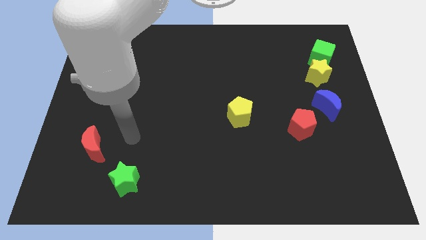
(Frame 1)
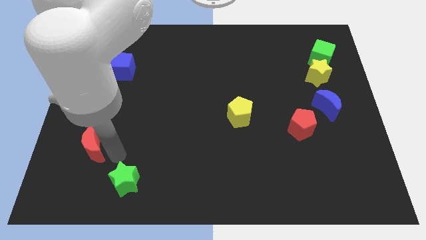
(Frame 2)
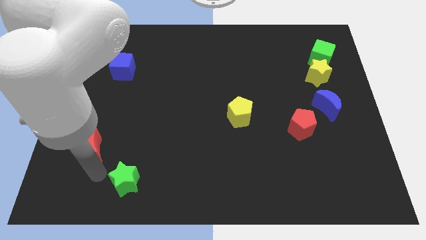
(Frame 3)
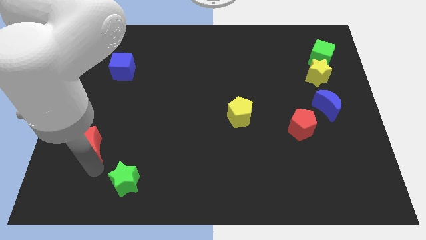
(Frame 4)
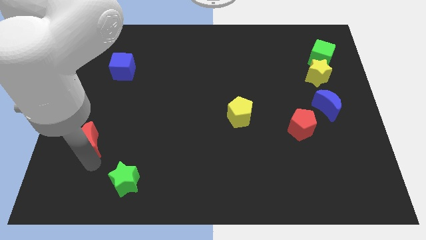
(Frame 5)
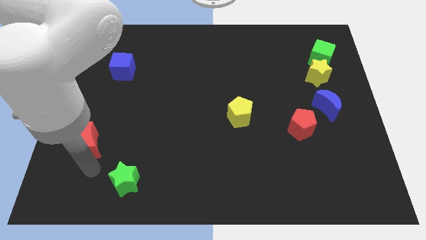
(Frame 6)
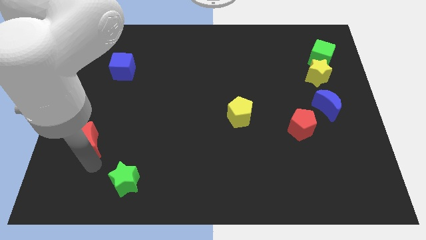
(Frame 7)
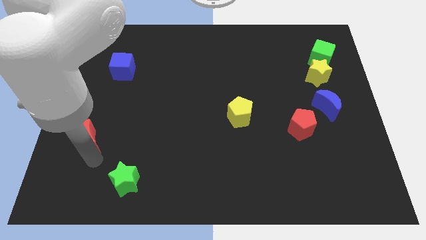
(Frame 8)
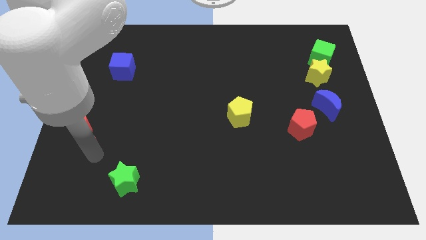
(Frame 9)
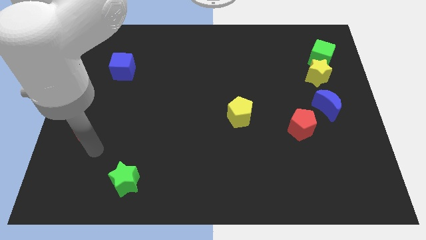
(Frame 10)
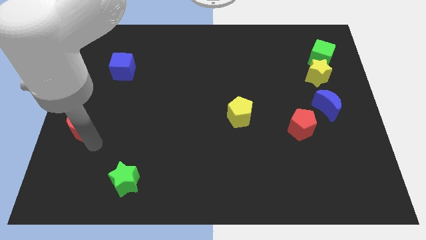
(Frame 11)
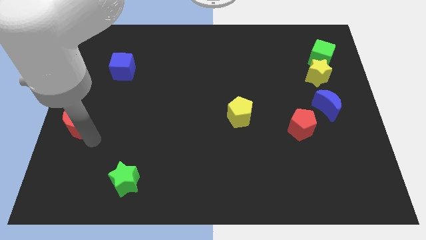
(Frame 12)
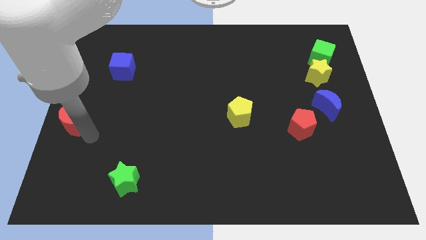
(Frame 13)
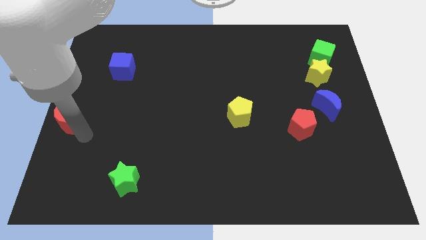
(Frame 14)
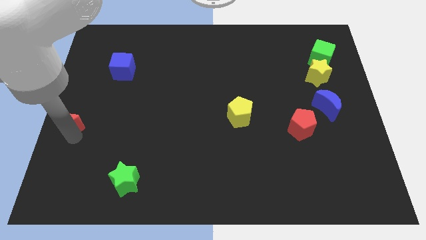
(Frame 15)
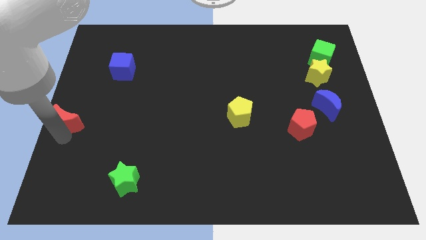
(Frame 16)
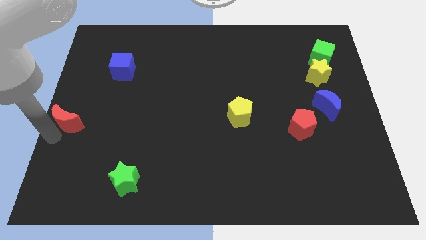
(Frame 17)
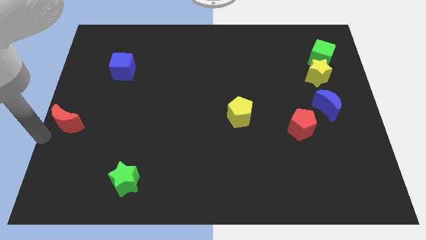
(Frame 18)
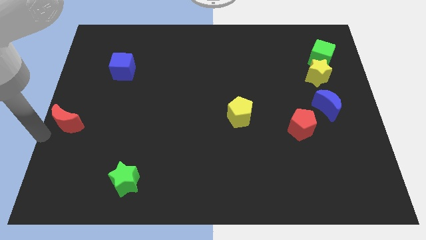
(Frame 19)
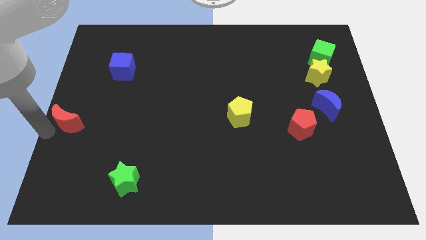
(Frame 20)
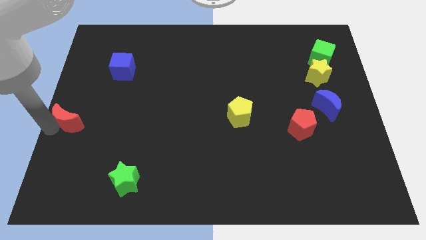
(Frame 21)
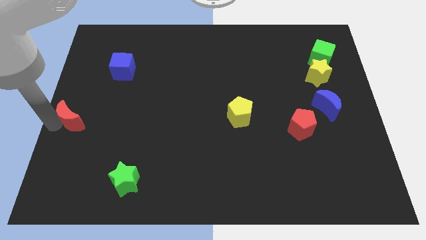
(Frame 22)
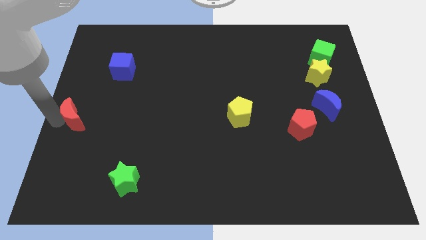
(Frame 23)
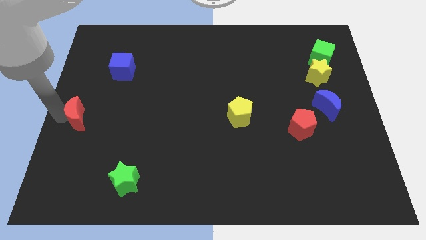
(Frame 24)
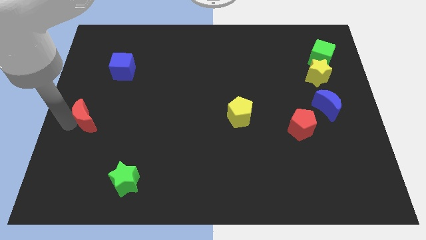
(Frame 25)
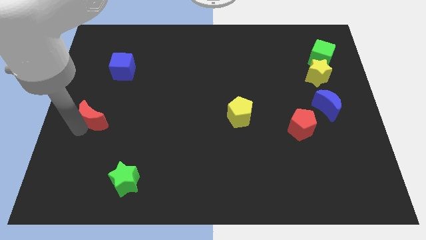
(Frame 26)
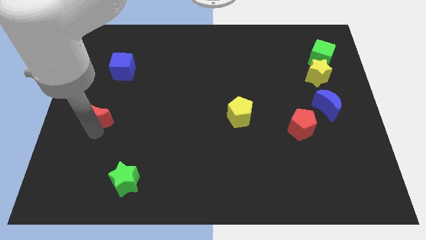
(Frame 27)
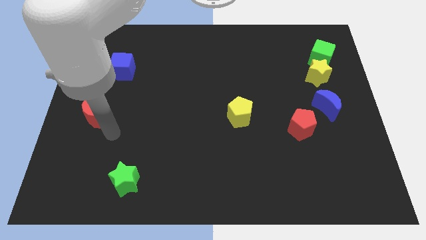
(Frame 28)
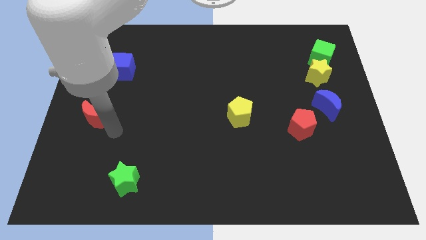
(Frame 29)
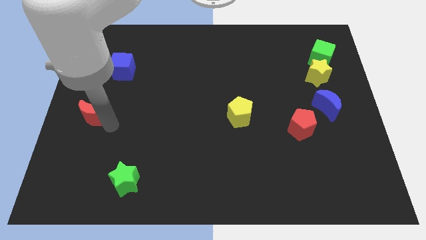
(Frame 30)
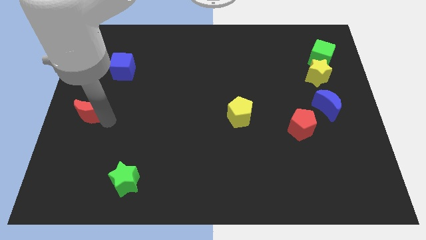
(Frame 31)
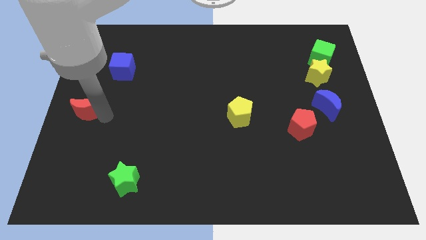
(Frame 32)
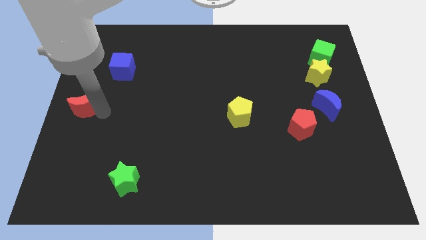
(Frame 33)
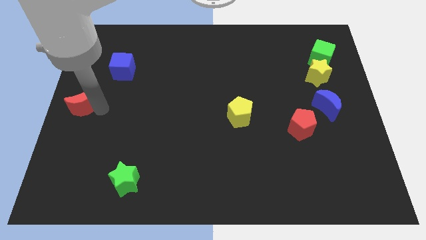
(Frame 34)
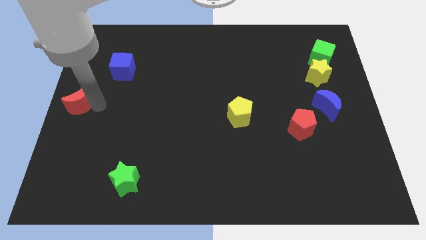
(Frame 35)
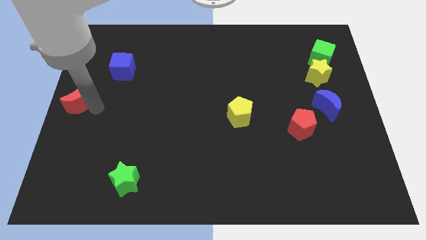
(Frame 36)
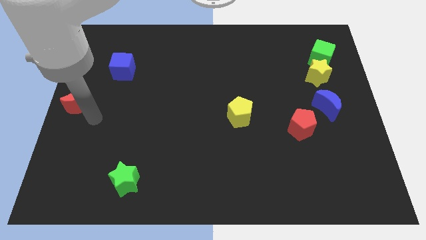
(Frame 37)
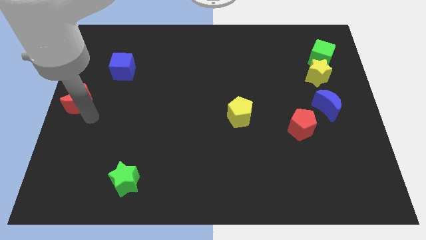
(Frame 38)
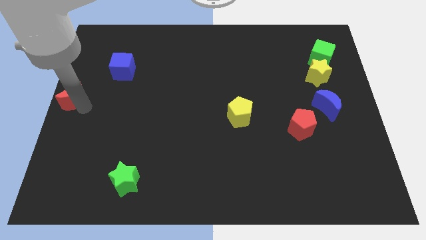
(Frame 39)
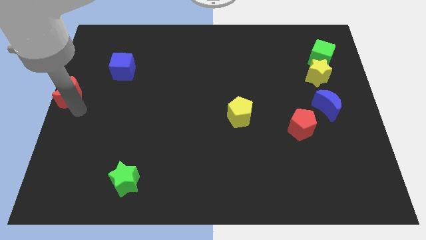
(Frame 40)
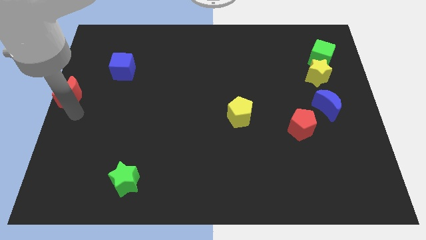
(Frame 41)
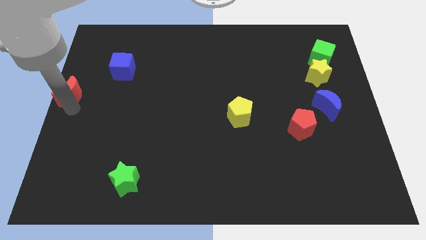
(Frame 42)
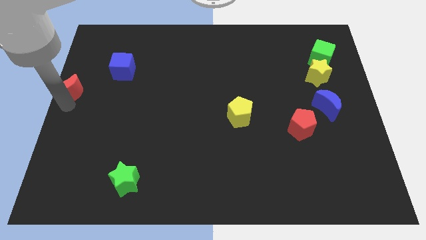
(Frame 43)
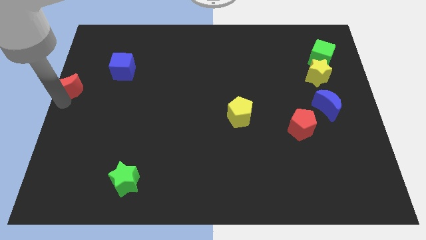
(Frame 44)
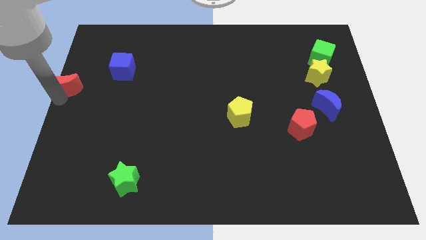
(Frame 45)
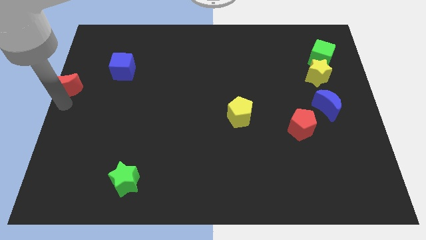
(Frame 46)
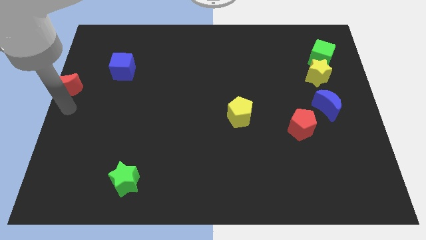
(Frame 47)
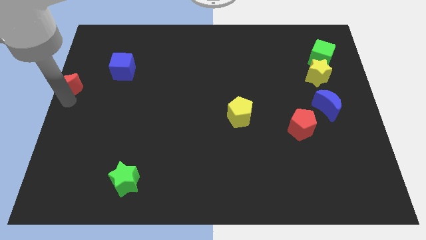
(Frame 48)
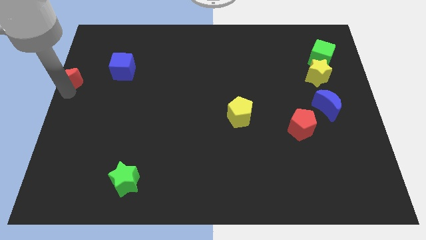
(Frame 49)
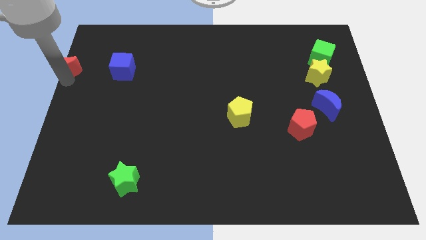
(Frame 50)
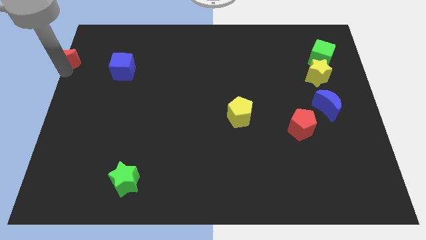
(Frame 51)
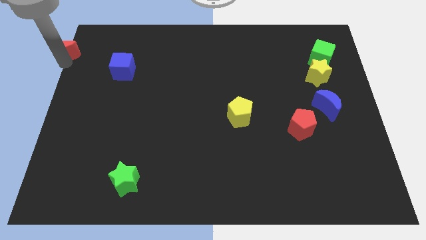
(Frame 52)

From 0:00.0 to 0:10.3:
move the red moon to the top left of the board

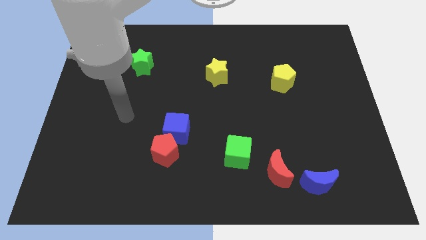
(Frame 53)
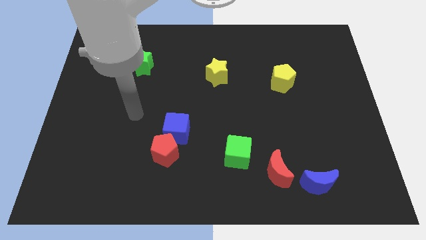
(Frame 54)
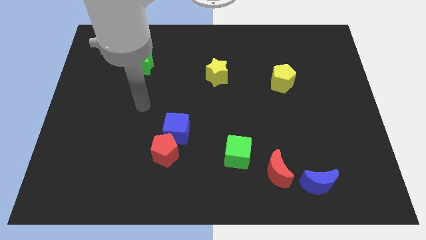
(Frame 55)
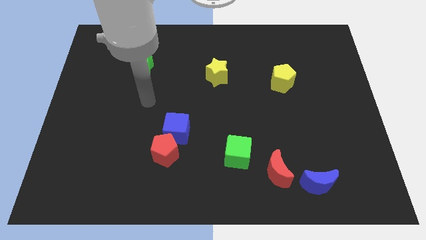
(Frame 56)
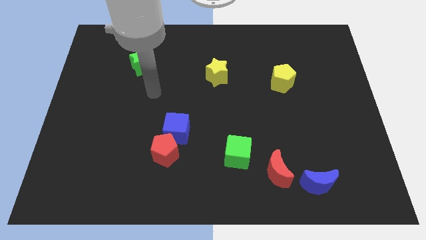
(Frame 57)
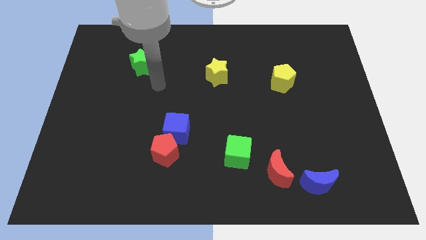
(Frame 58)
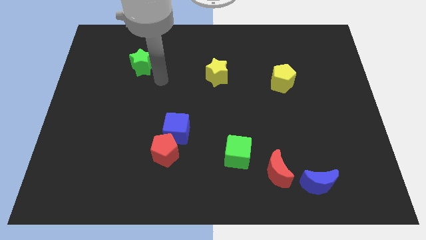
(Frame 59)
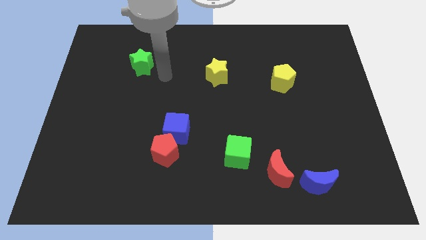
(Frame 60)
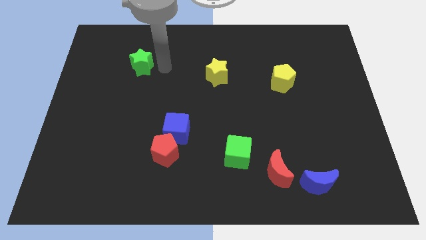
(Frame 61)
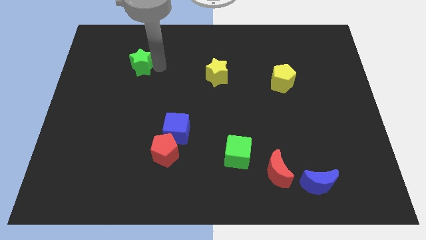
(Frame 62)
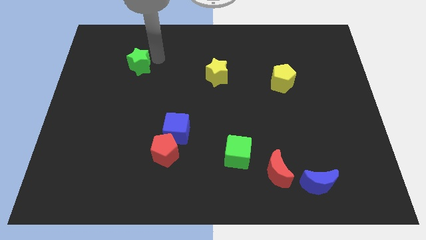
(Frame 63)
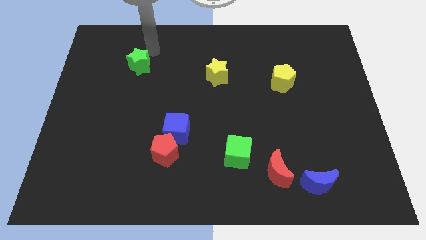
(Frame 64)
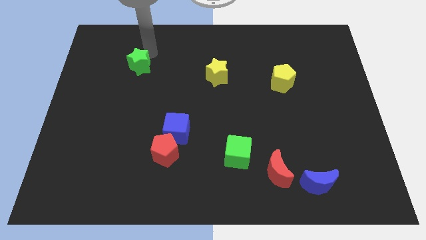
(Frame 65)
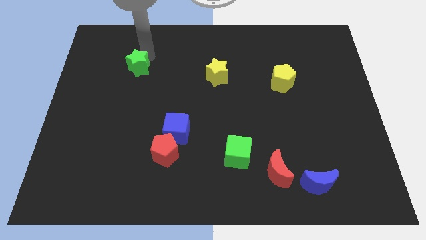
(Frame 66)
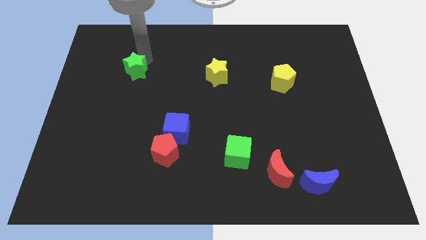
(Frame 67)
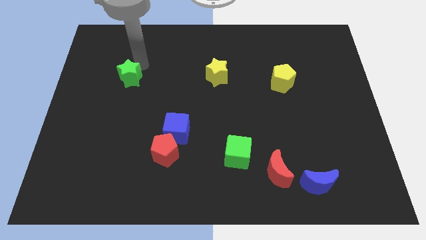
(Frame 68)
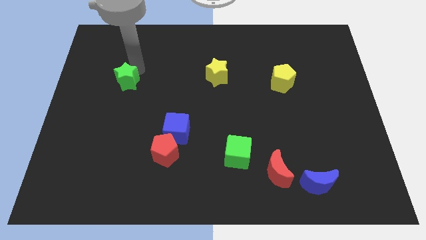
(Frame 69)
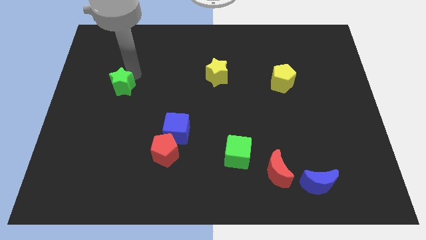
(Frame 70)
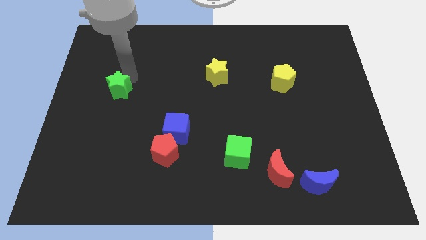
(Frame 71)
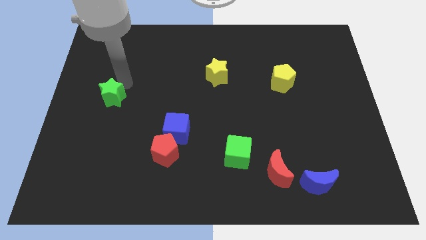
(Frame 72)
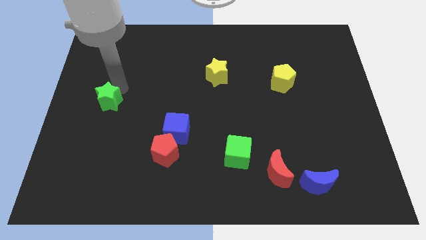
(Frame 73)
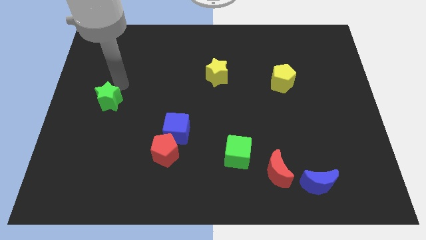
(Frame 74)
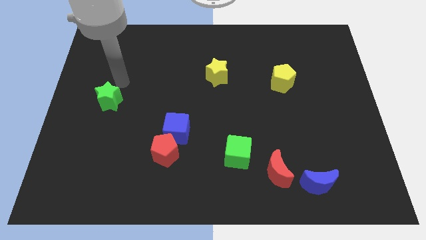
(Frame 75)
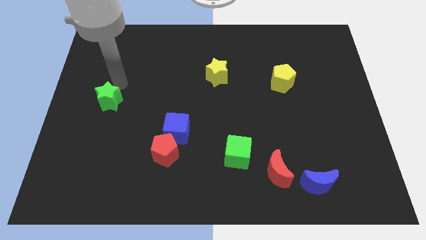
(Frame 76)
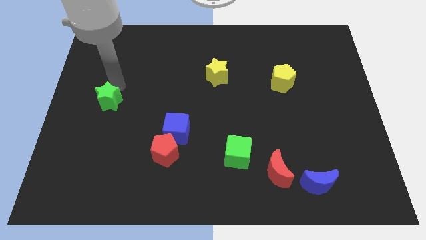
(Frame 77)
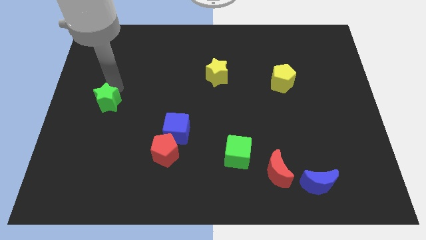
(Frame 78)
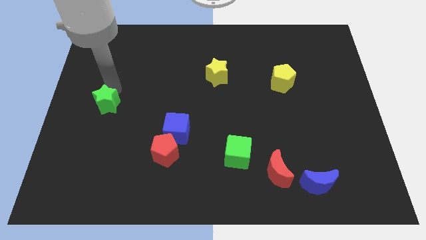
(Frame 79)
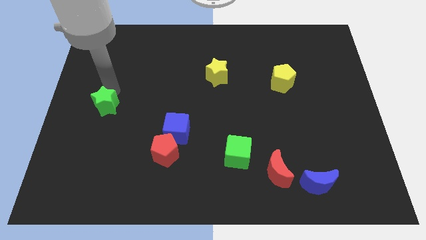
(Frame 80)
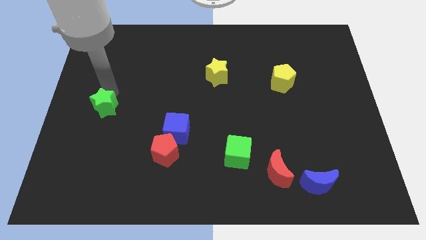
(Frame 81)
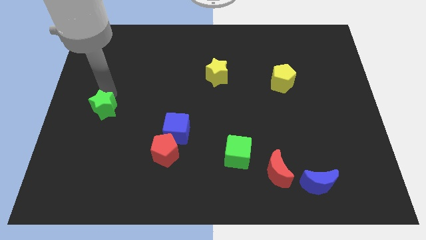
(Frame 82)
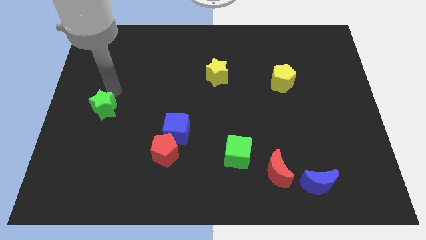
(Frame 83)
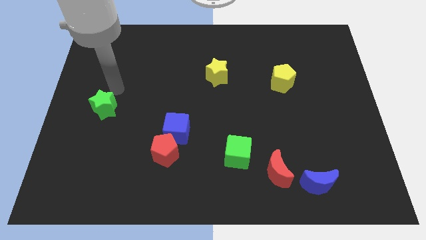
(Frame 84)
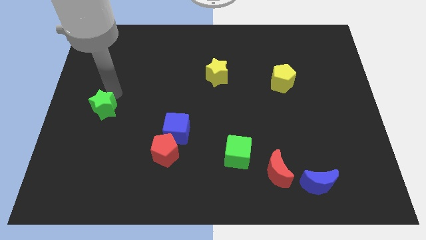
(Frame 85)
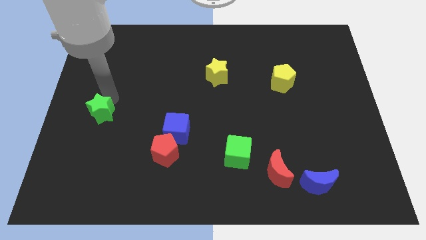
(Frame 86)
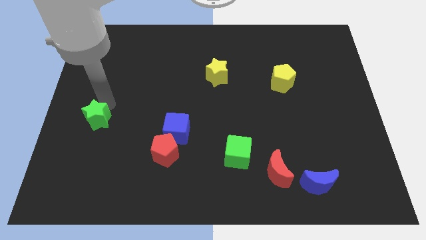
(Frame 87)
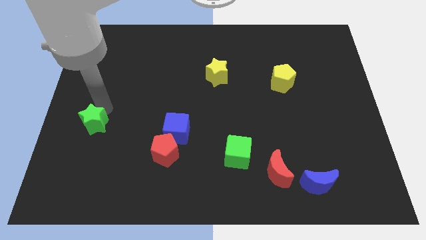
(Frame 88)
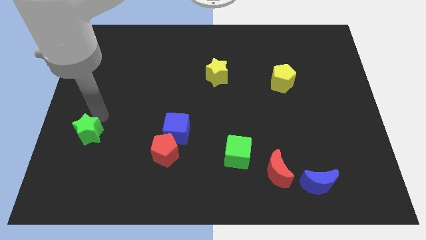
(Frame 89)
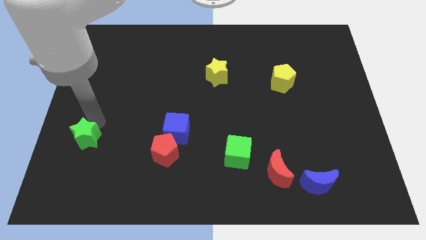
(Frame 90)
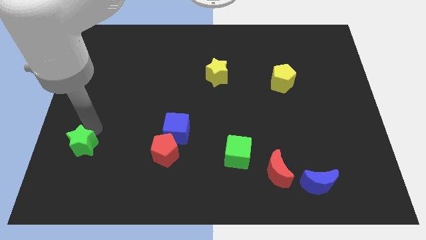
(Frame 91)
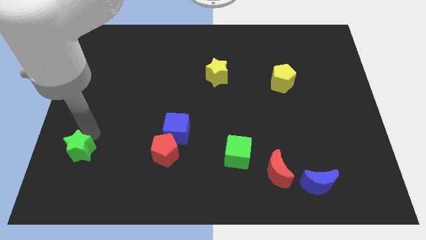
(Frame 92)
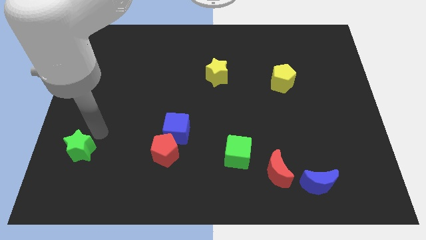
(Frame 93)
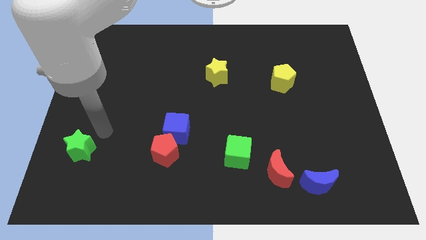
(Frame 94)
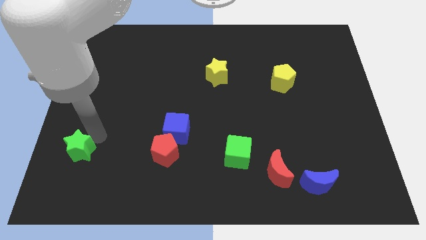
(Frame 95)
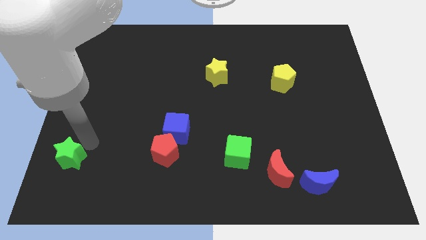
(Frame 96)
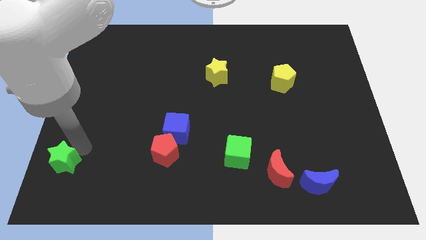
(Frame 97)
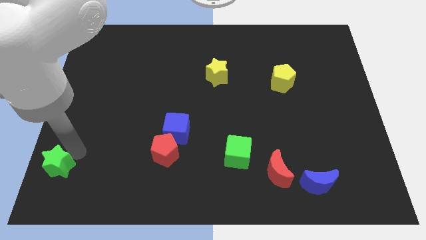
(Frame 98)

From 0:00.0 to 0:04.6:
push the green star to the bottom left of the board
